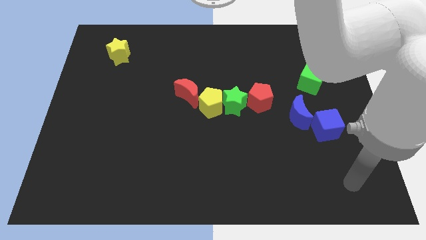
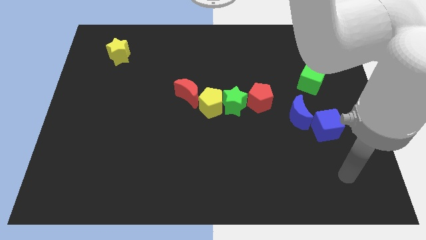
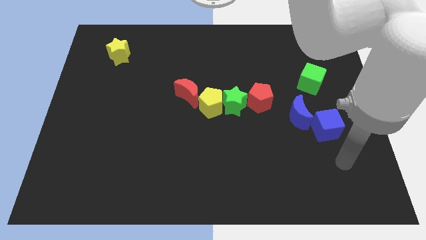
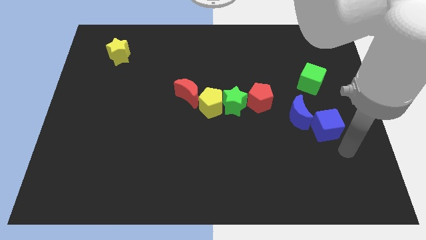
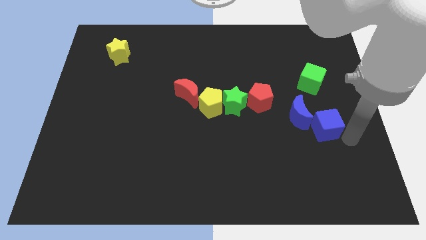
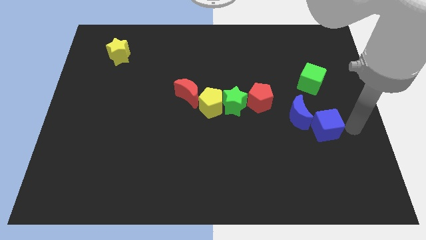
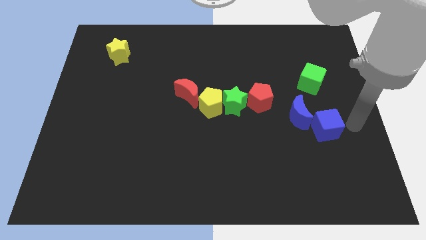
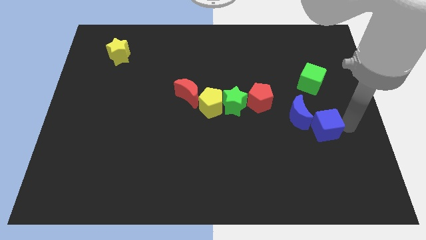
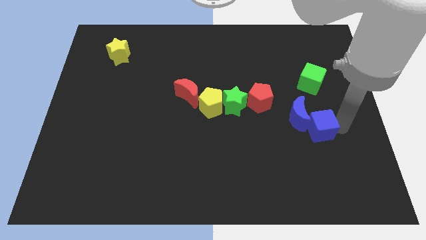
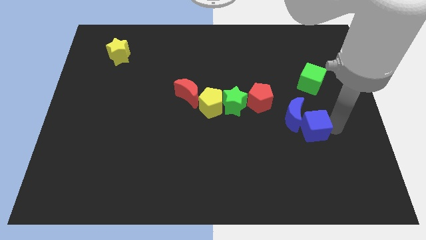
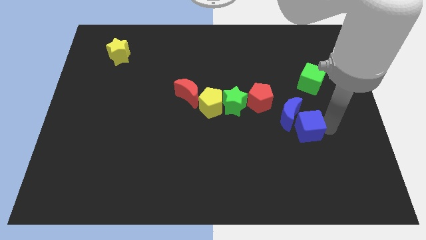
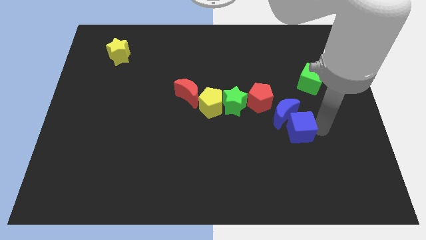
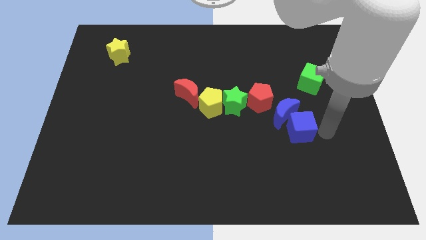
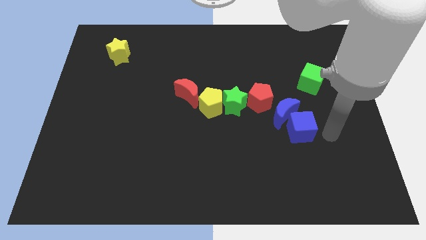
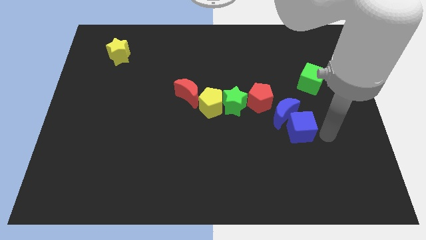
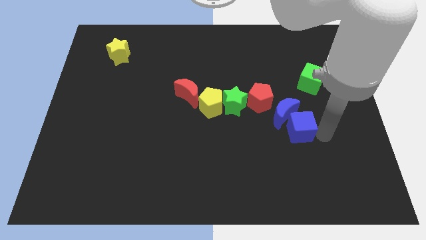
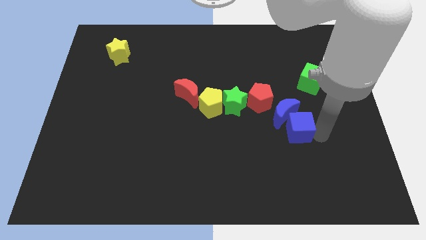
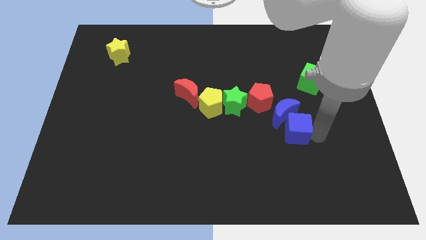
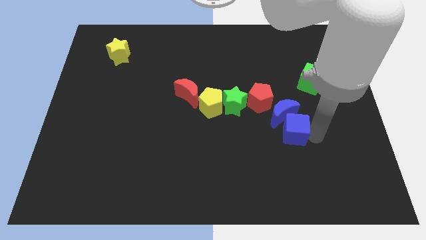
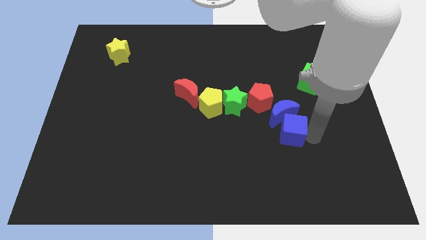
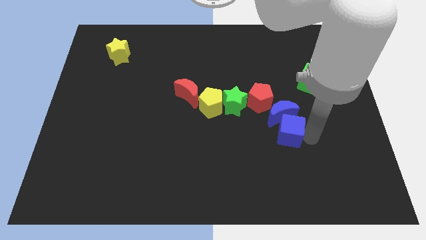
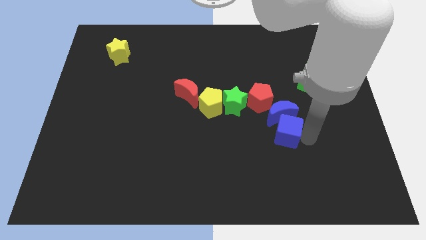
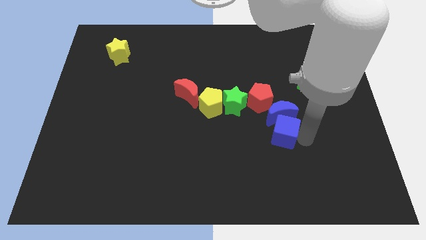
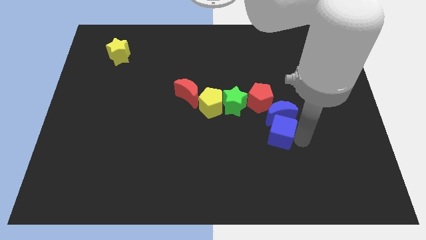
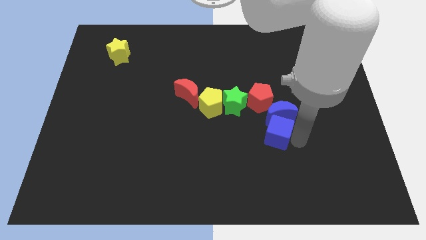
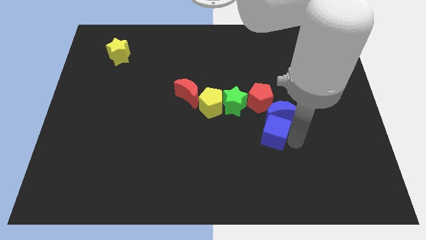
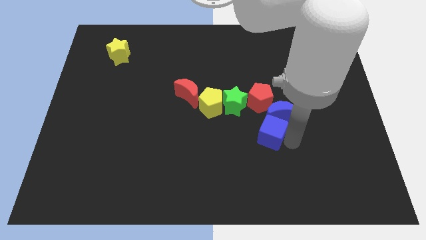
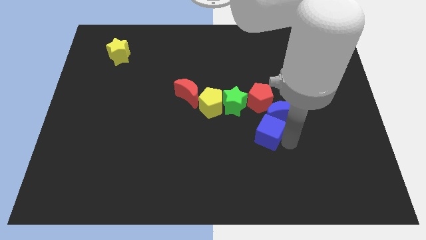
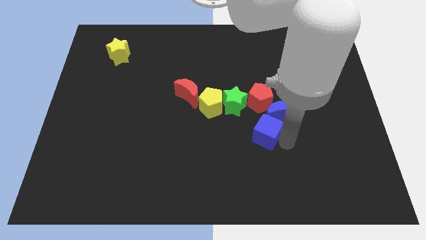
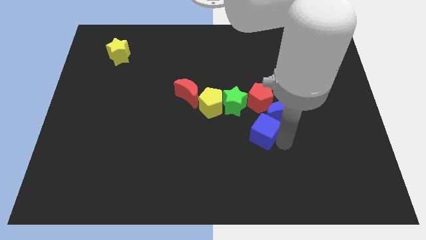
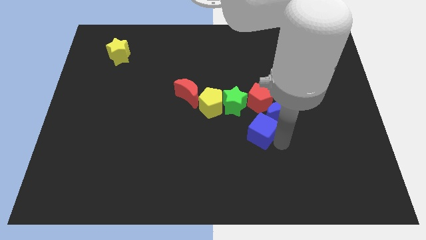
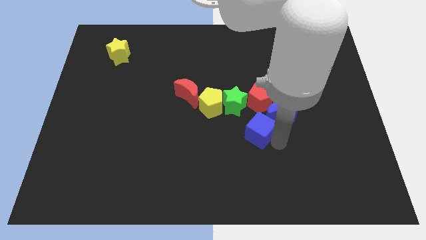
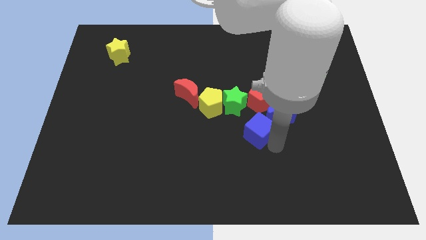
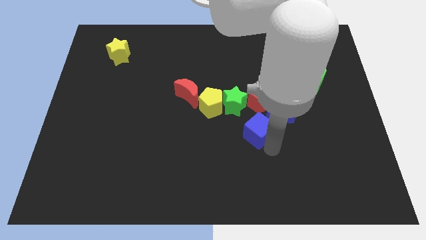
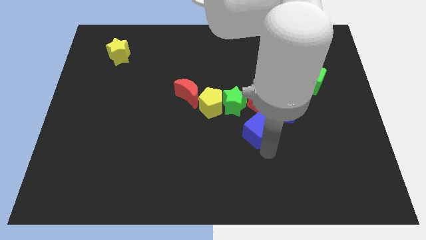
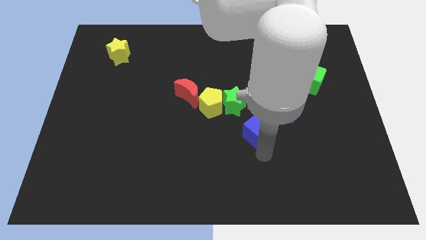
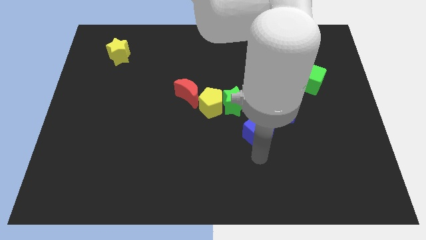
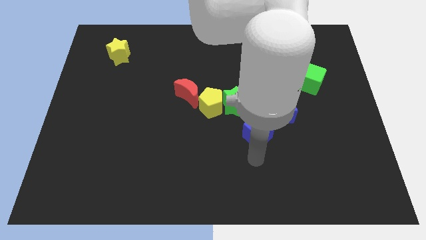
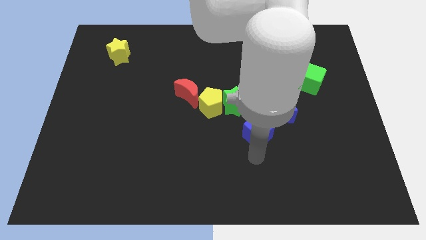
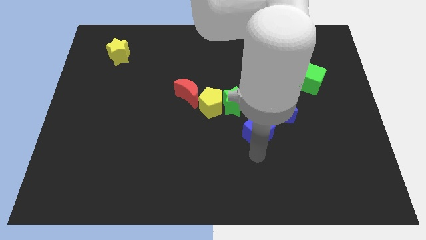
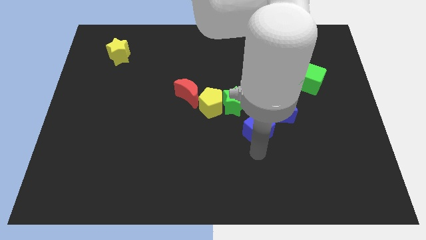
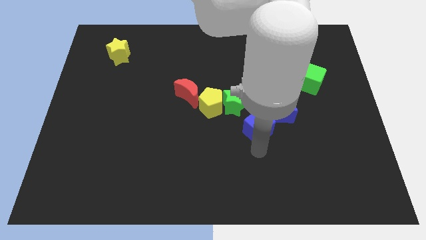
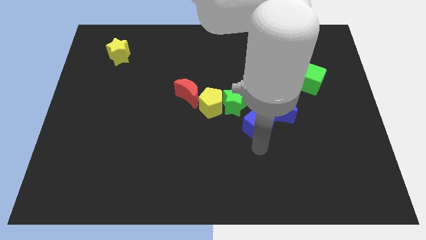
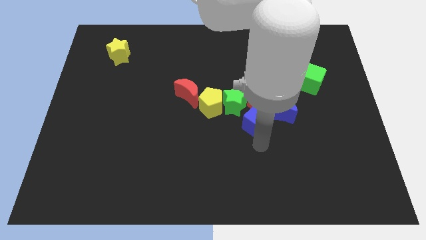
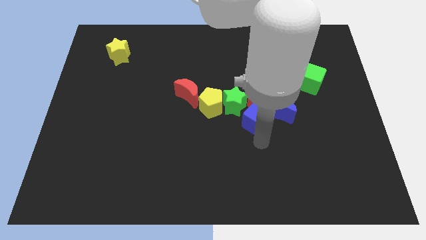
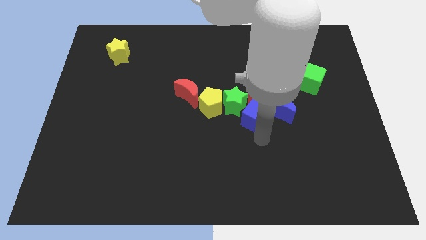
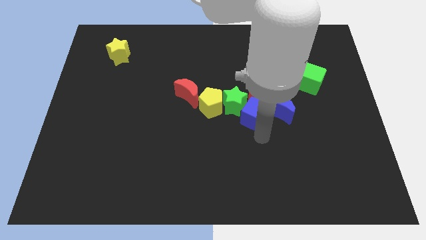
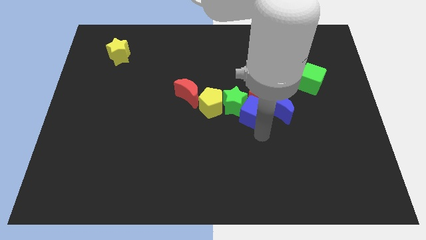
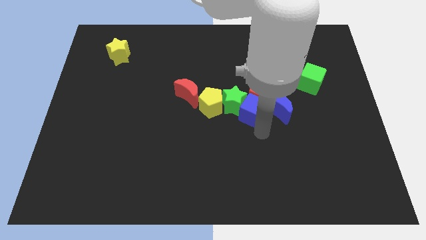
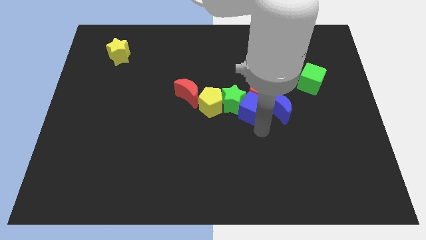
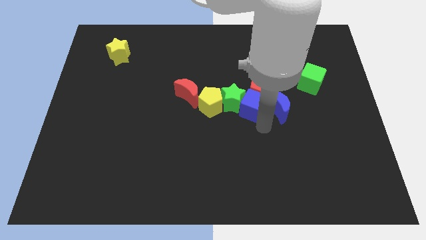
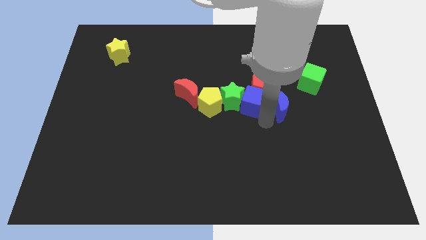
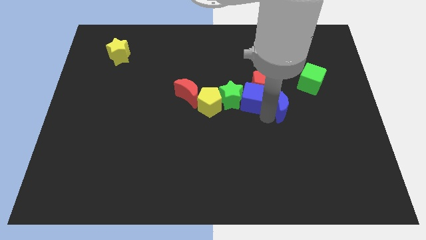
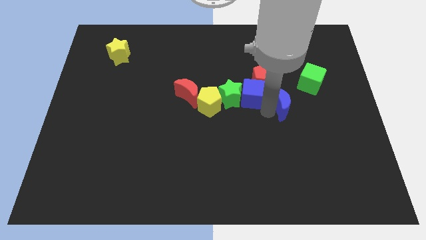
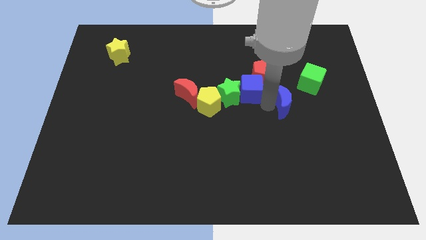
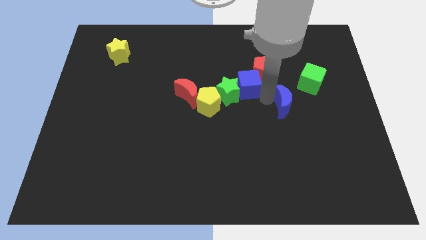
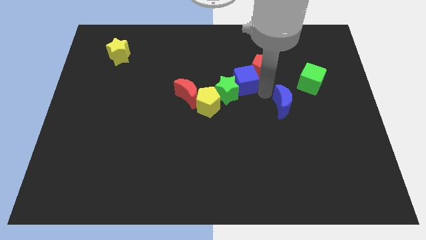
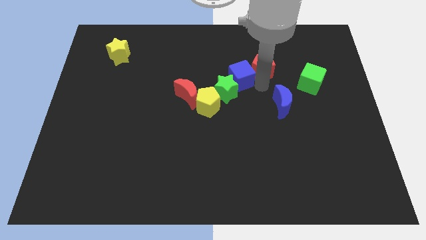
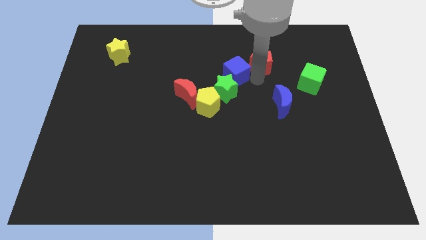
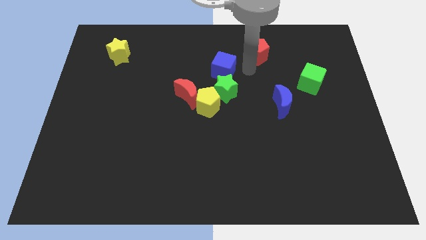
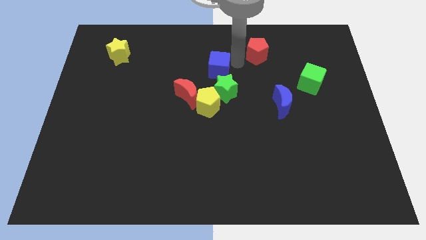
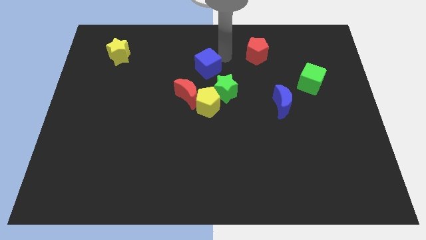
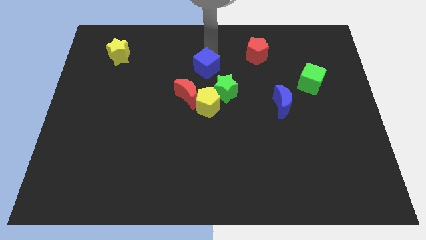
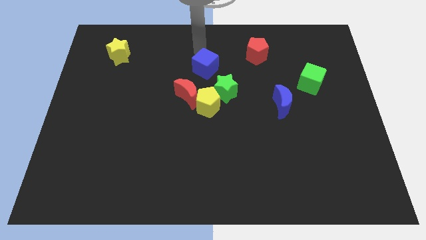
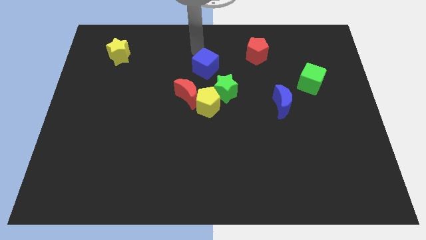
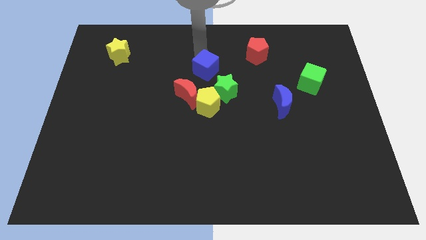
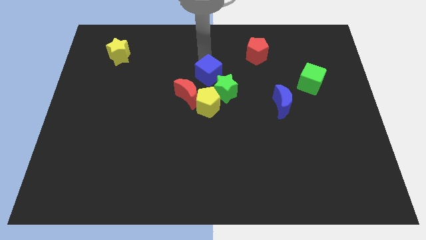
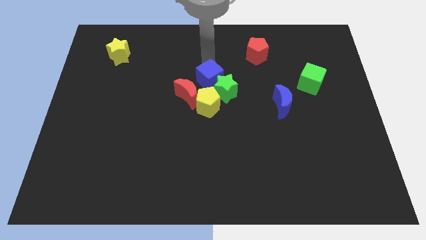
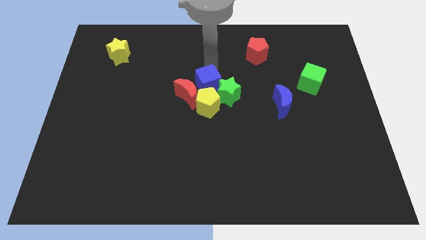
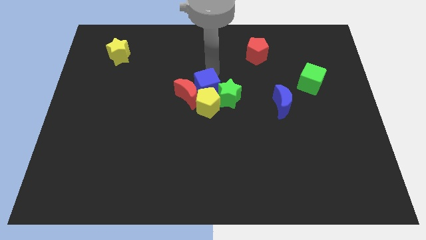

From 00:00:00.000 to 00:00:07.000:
move the blue cube to the yellow pentagon
